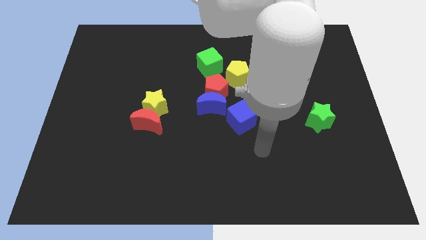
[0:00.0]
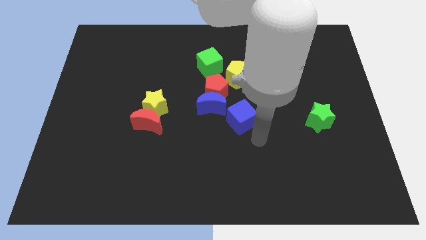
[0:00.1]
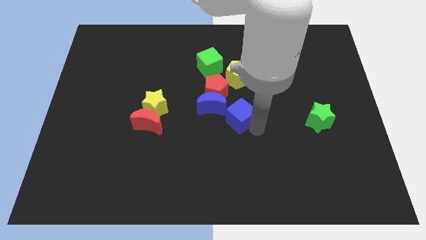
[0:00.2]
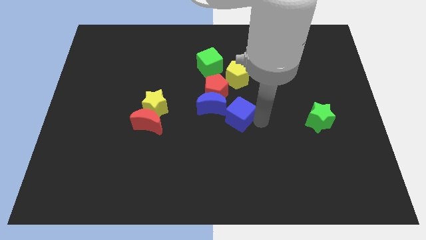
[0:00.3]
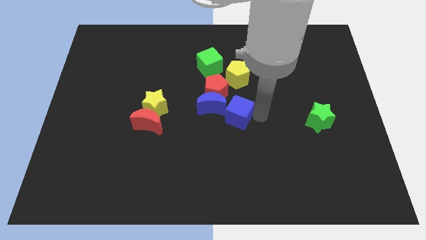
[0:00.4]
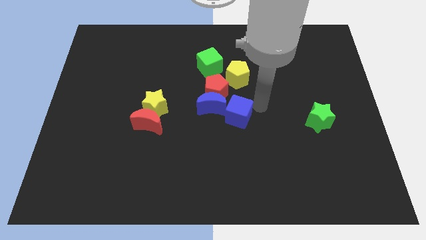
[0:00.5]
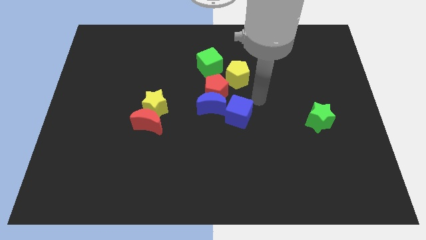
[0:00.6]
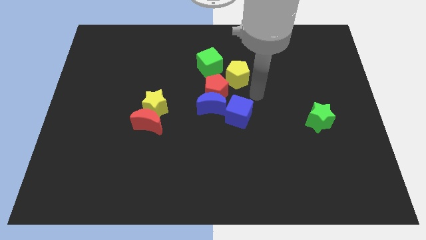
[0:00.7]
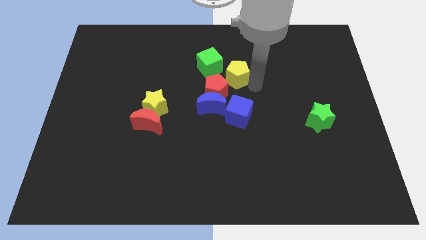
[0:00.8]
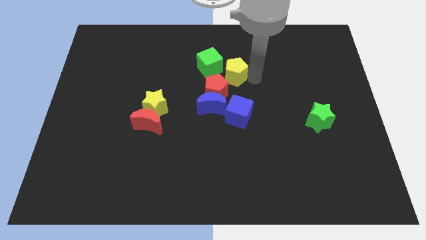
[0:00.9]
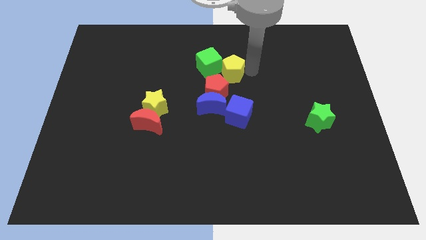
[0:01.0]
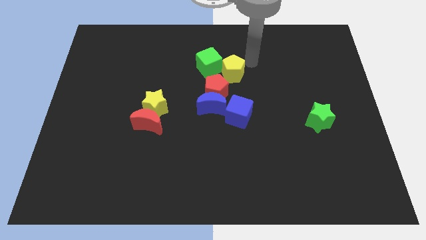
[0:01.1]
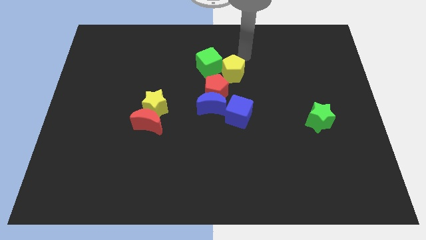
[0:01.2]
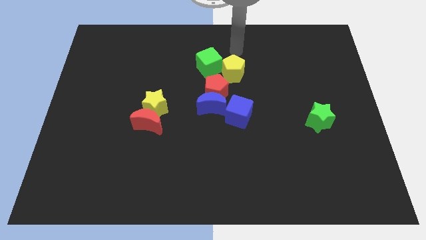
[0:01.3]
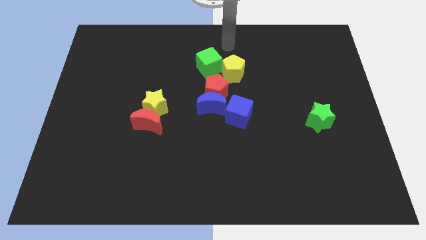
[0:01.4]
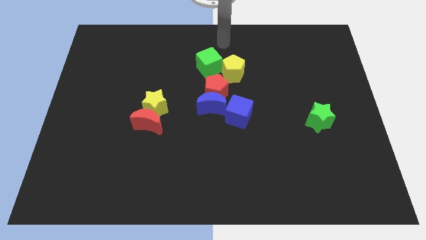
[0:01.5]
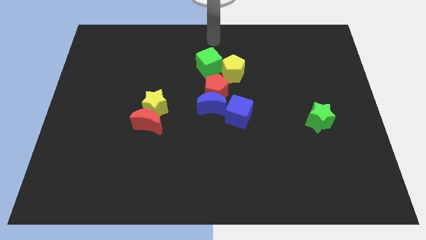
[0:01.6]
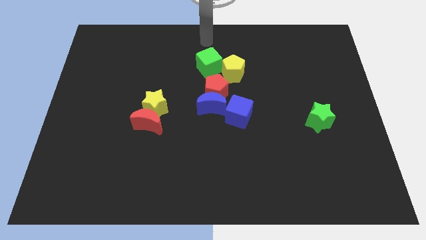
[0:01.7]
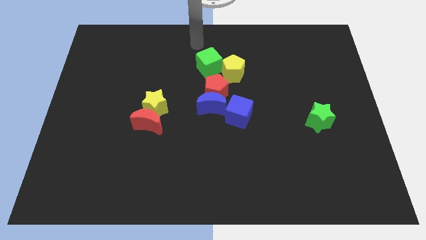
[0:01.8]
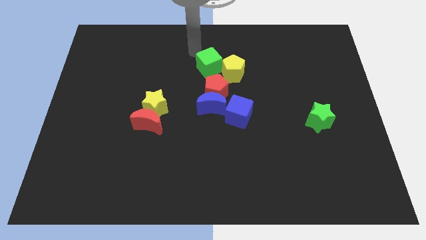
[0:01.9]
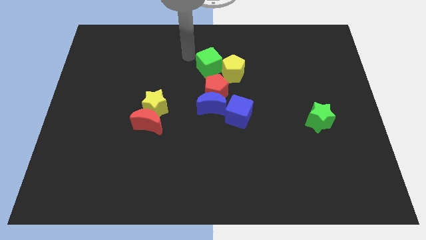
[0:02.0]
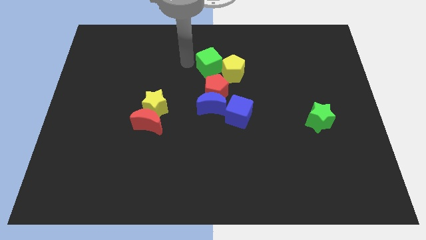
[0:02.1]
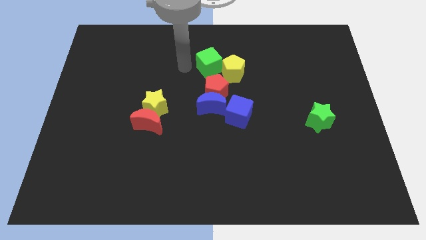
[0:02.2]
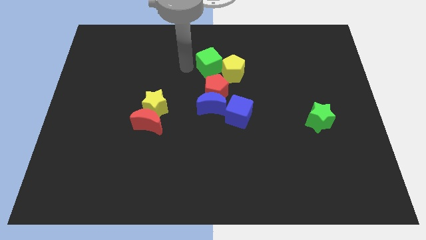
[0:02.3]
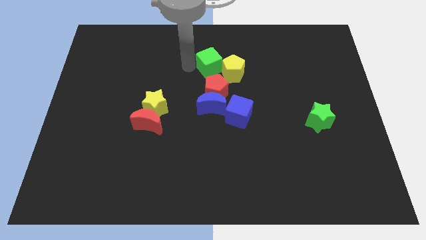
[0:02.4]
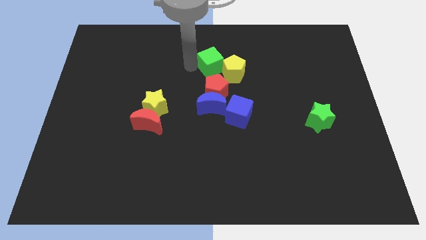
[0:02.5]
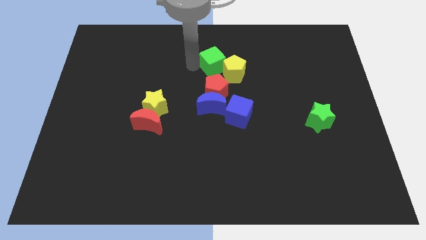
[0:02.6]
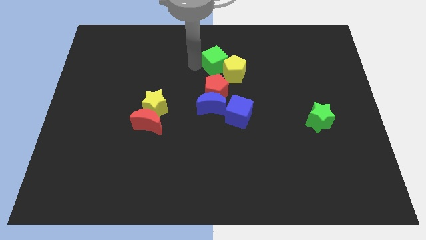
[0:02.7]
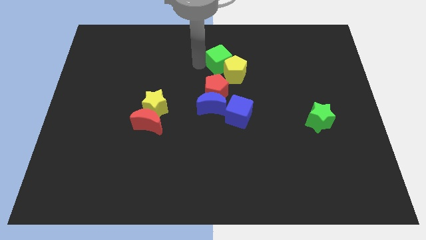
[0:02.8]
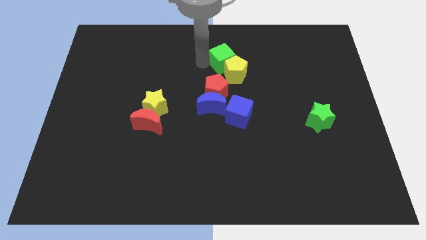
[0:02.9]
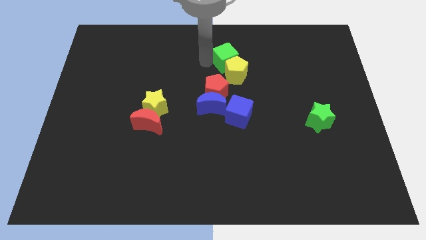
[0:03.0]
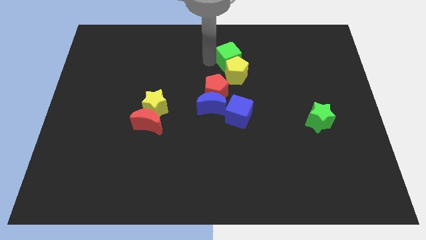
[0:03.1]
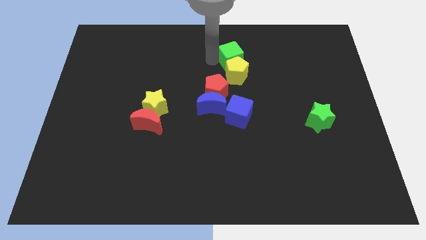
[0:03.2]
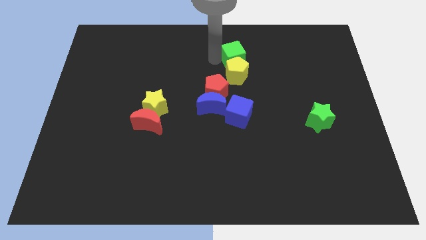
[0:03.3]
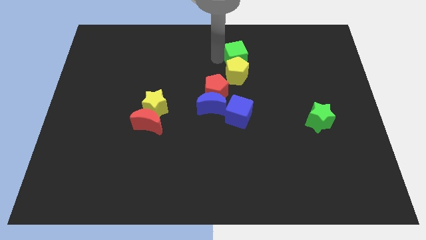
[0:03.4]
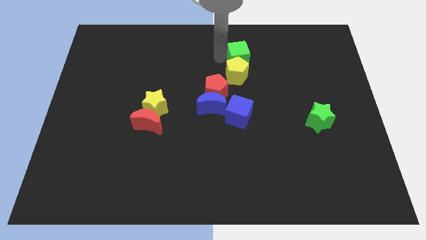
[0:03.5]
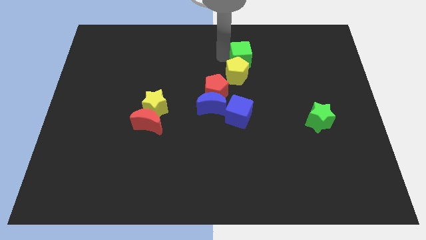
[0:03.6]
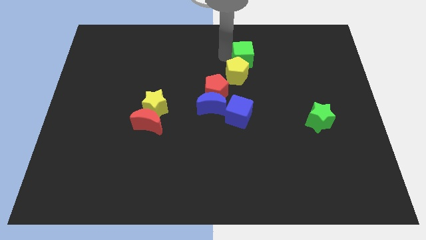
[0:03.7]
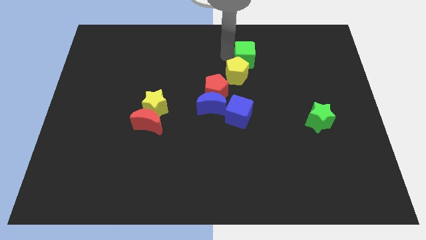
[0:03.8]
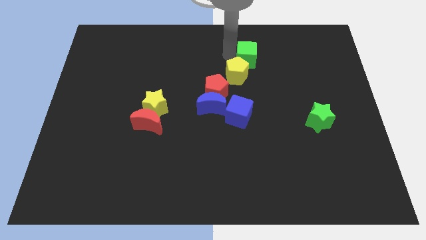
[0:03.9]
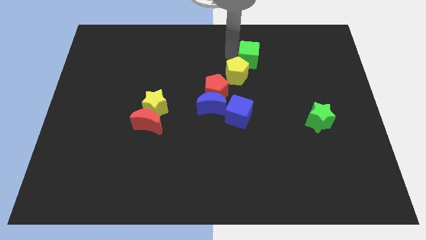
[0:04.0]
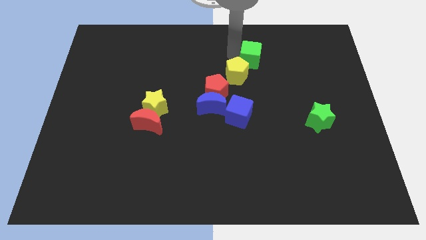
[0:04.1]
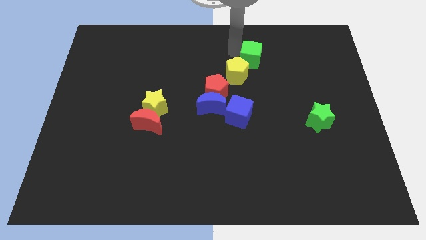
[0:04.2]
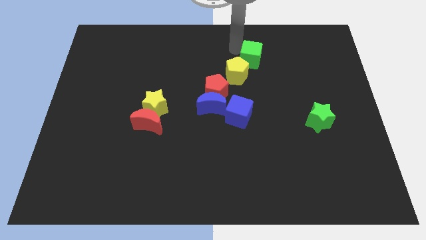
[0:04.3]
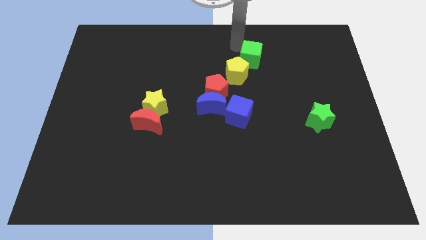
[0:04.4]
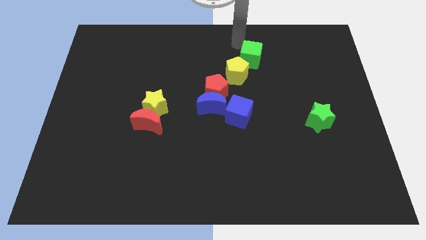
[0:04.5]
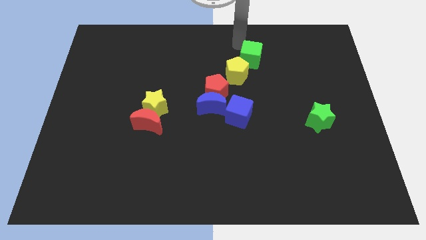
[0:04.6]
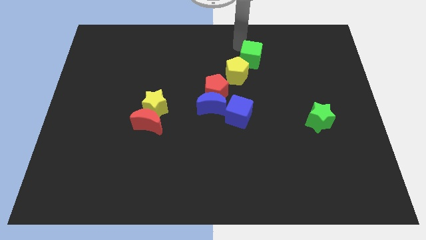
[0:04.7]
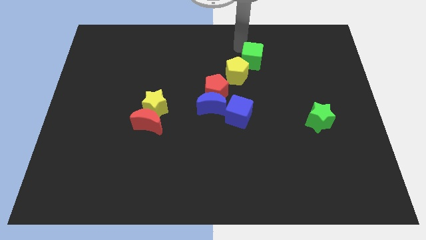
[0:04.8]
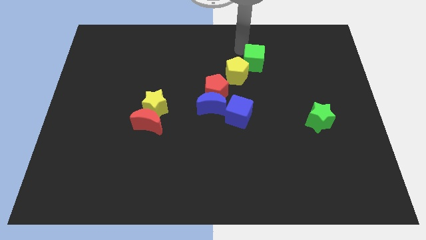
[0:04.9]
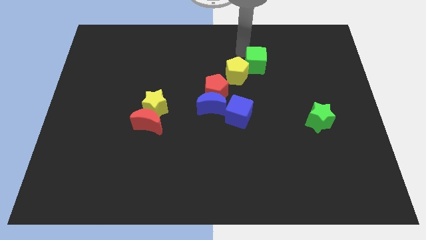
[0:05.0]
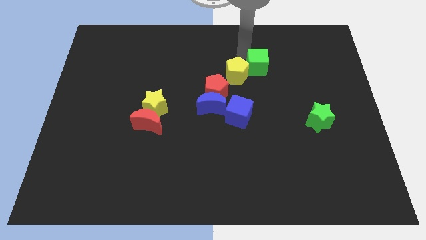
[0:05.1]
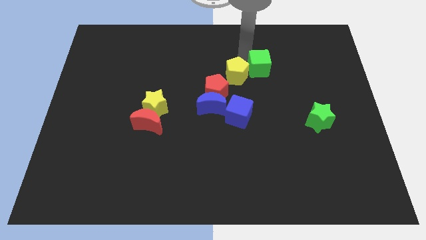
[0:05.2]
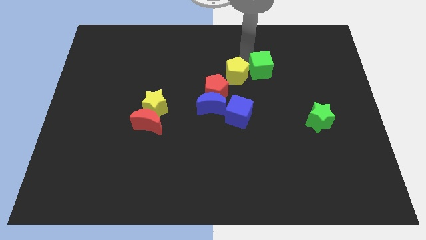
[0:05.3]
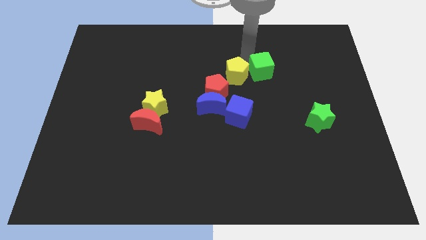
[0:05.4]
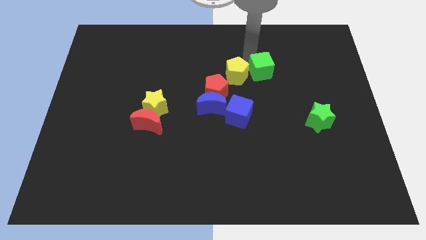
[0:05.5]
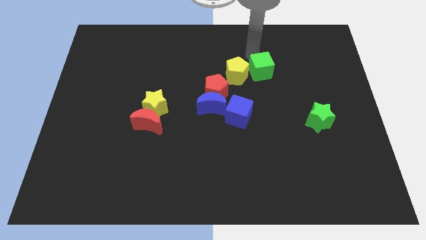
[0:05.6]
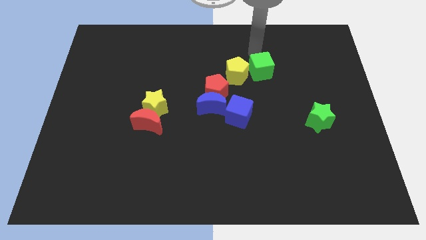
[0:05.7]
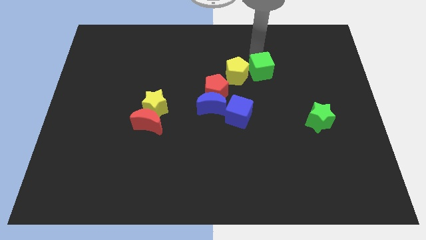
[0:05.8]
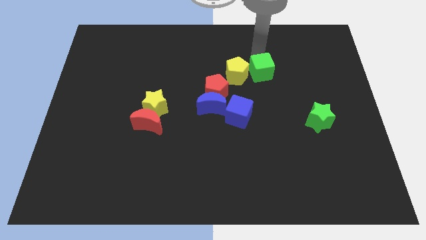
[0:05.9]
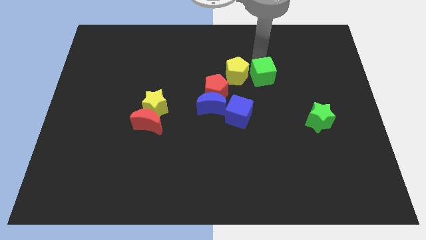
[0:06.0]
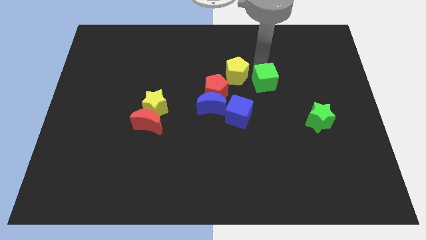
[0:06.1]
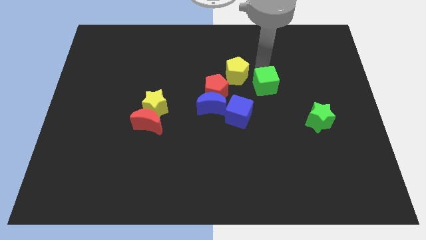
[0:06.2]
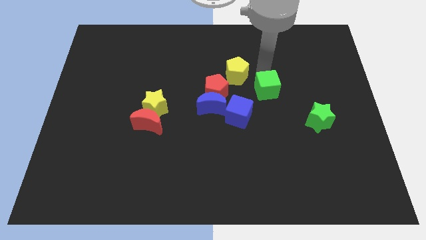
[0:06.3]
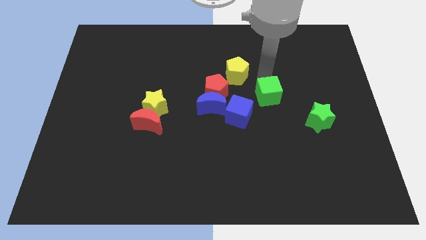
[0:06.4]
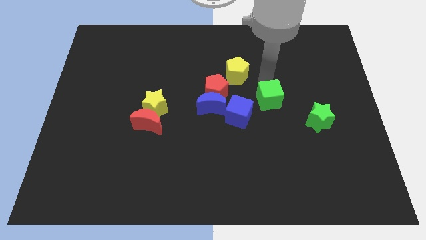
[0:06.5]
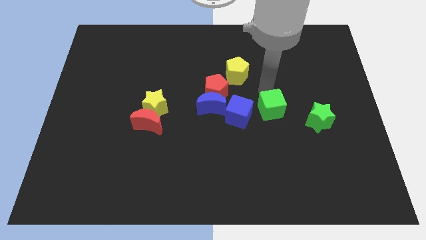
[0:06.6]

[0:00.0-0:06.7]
push the green cube downwards and then to the right

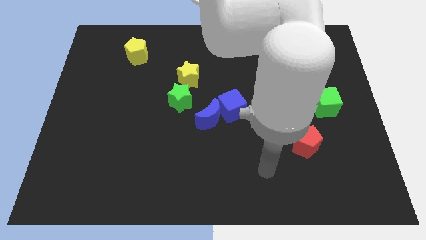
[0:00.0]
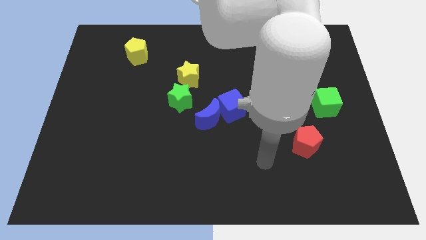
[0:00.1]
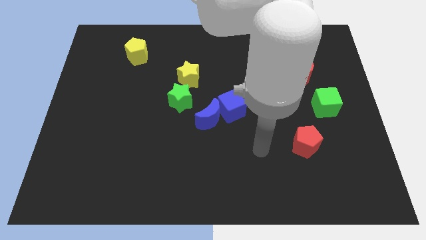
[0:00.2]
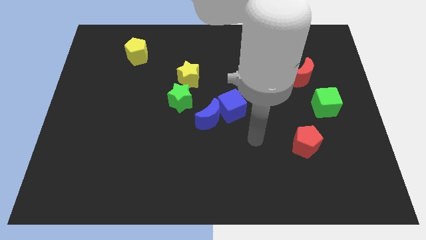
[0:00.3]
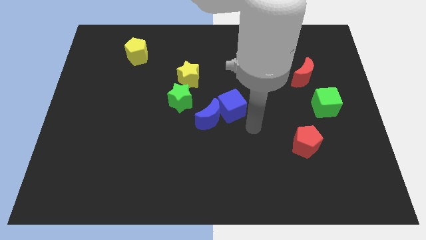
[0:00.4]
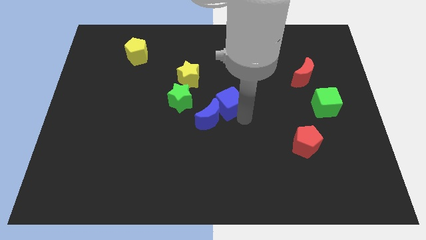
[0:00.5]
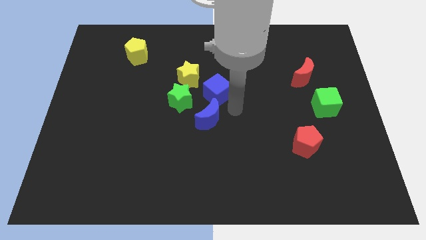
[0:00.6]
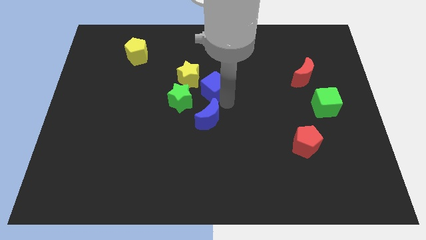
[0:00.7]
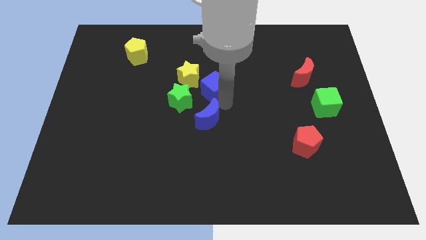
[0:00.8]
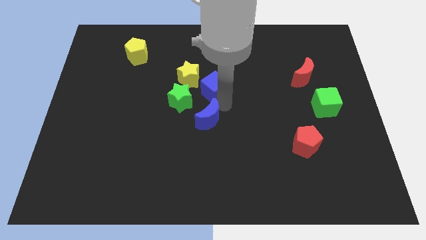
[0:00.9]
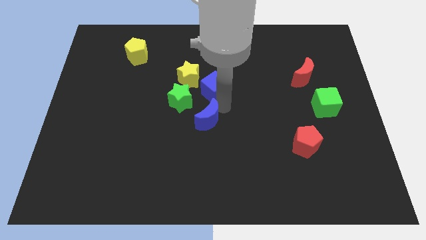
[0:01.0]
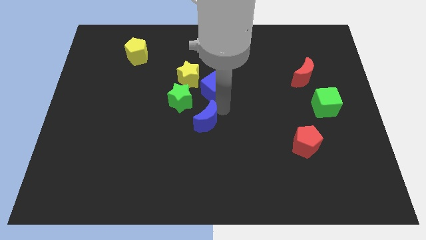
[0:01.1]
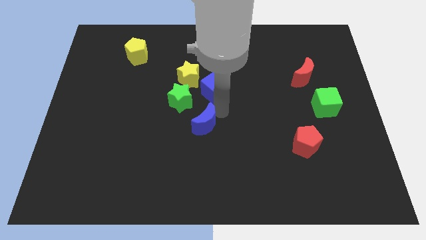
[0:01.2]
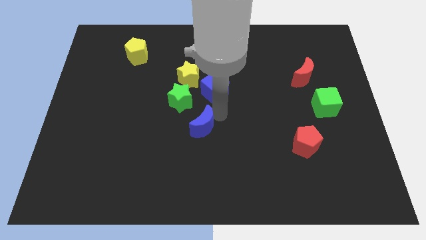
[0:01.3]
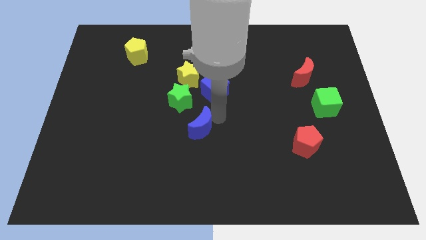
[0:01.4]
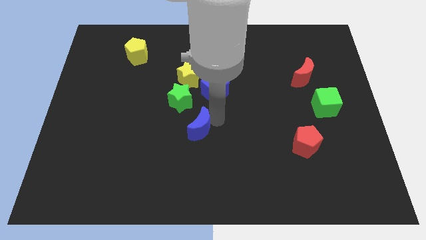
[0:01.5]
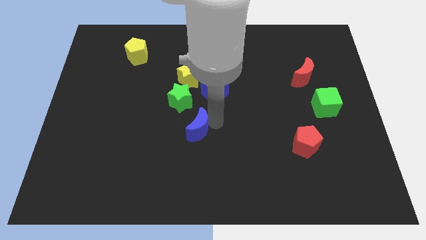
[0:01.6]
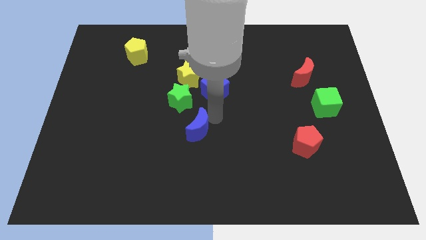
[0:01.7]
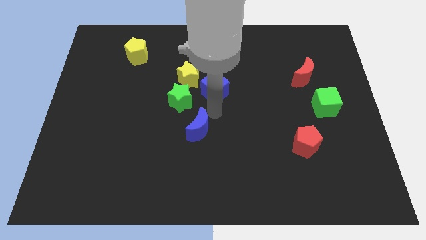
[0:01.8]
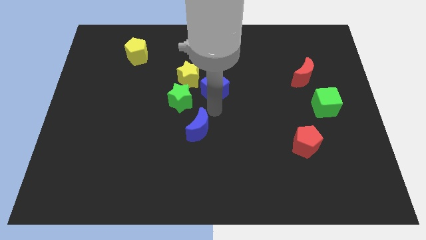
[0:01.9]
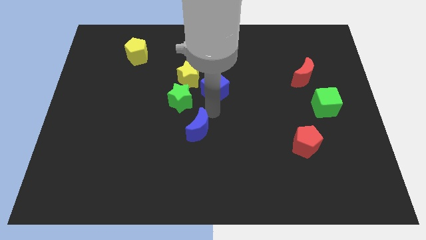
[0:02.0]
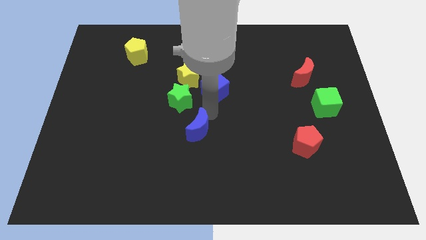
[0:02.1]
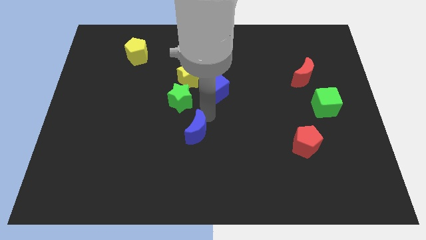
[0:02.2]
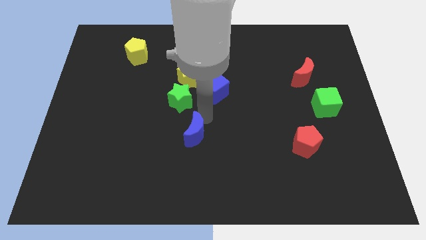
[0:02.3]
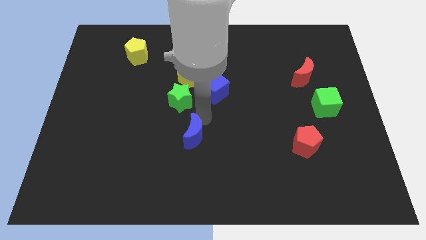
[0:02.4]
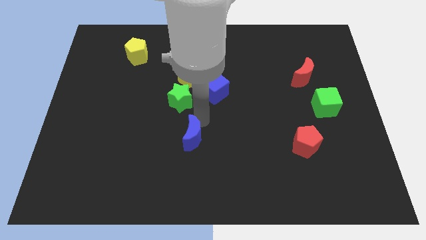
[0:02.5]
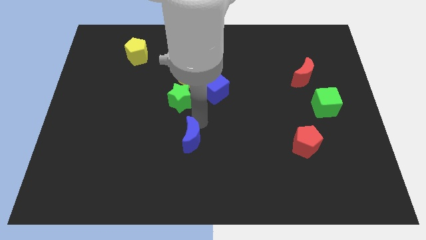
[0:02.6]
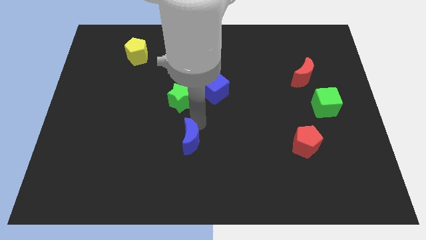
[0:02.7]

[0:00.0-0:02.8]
slightly slide the blue moon downwards and left diagonally
